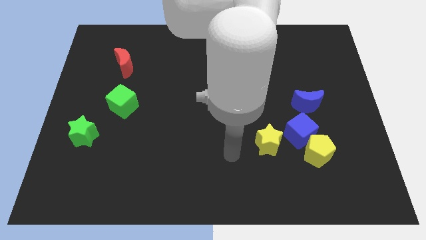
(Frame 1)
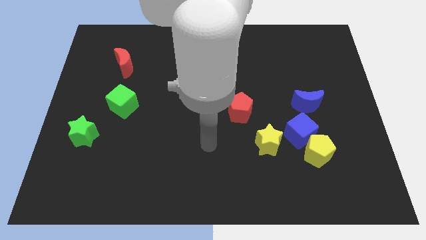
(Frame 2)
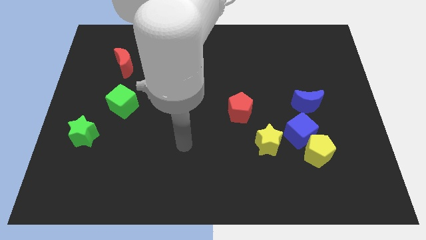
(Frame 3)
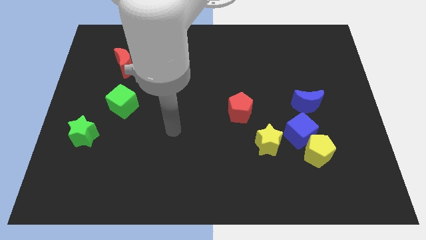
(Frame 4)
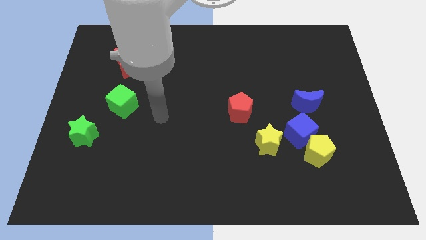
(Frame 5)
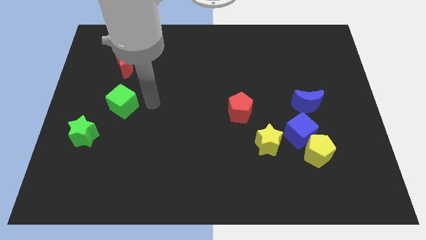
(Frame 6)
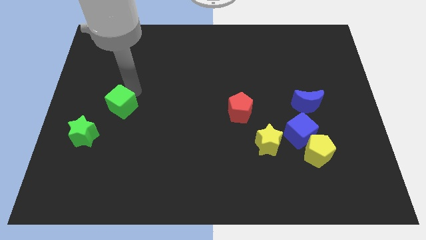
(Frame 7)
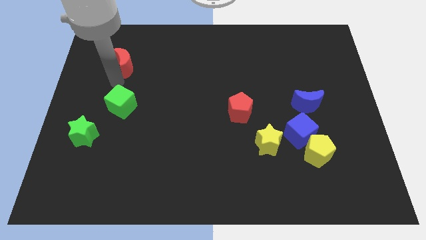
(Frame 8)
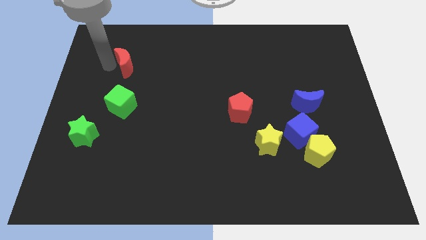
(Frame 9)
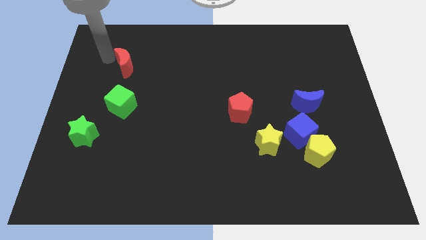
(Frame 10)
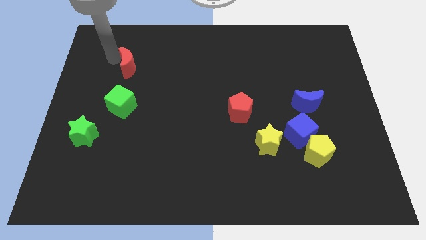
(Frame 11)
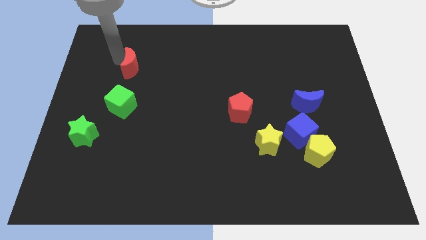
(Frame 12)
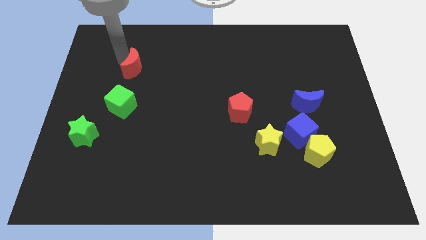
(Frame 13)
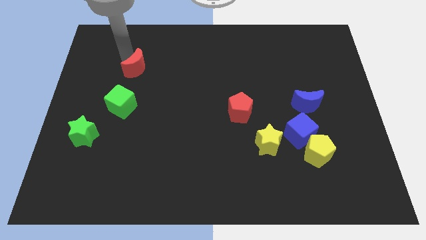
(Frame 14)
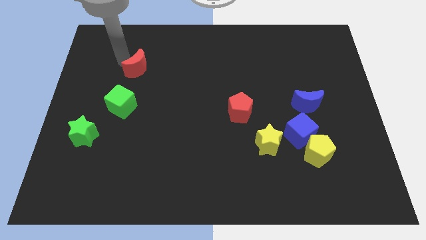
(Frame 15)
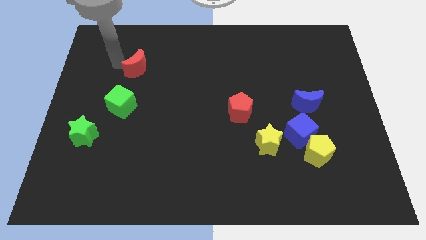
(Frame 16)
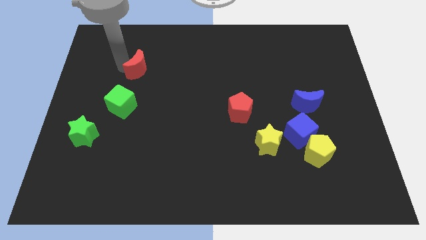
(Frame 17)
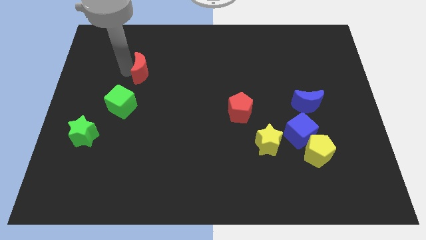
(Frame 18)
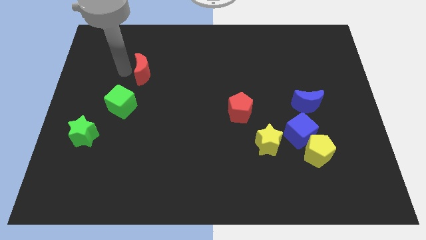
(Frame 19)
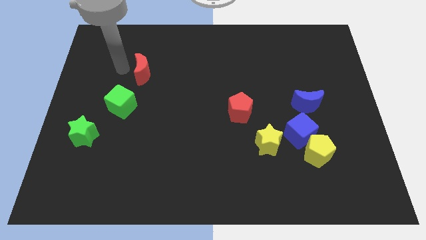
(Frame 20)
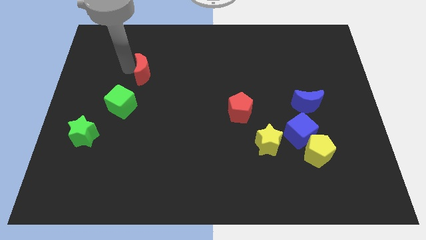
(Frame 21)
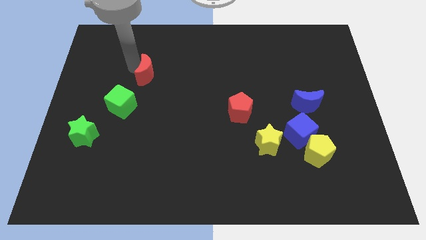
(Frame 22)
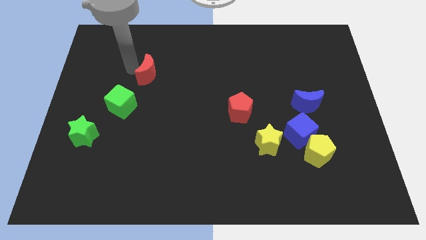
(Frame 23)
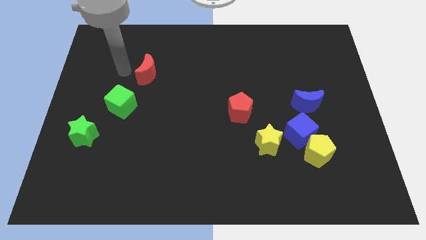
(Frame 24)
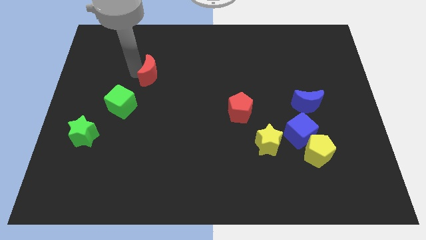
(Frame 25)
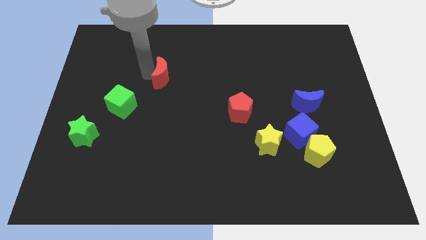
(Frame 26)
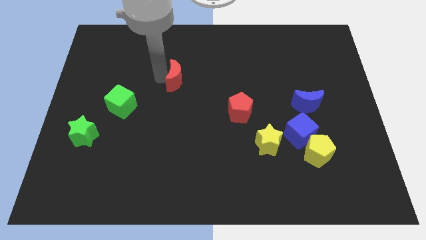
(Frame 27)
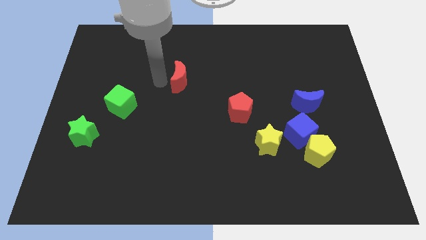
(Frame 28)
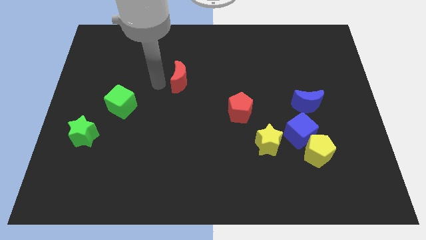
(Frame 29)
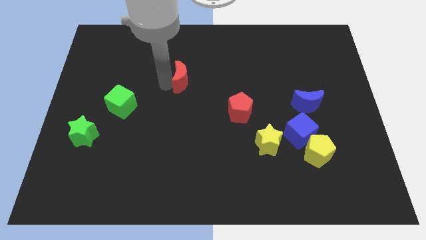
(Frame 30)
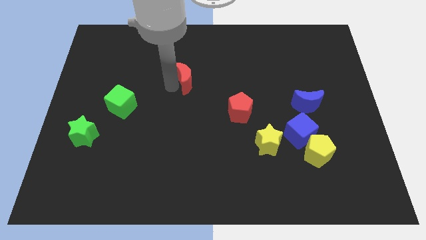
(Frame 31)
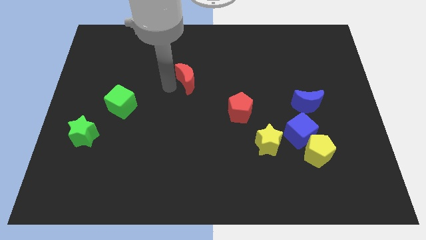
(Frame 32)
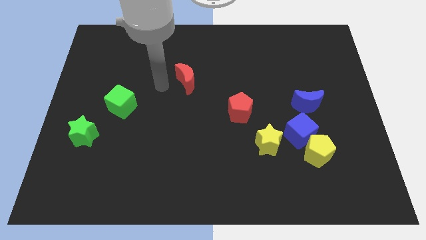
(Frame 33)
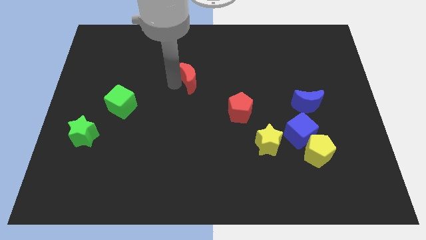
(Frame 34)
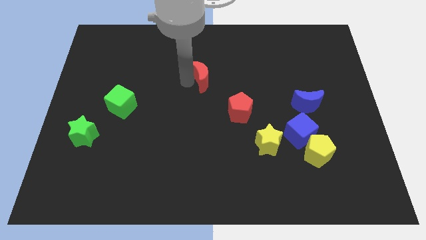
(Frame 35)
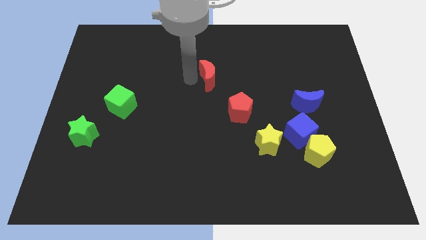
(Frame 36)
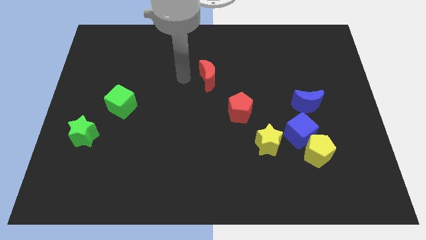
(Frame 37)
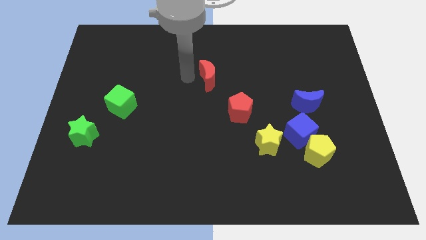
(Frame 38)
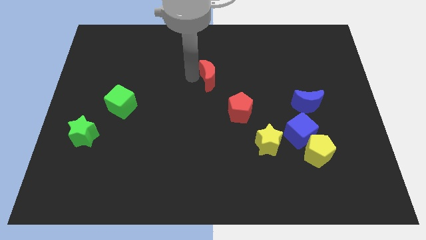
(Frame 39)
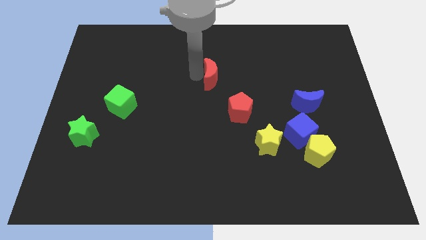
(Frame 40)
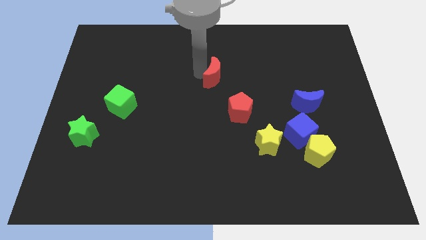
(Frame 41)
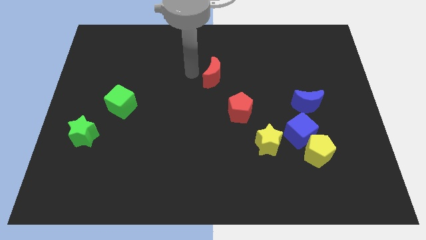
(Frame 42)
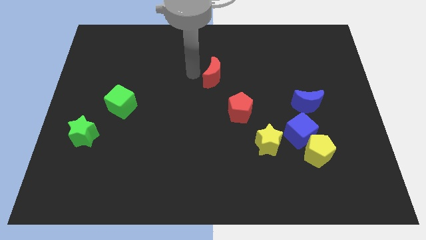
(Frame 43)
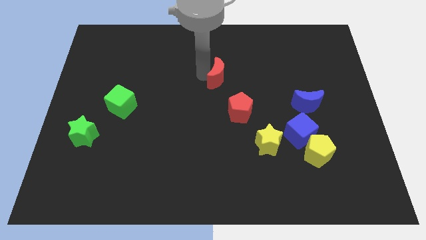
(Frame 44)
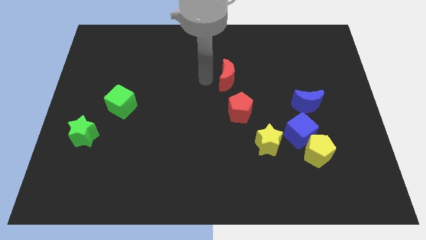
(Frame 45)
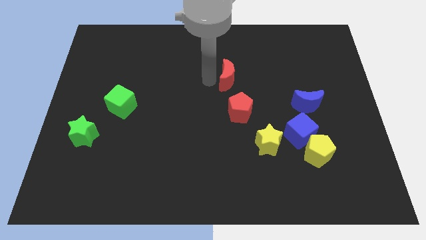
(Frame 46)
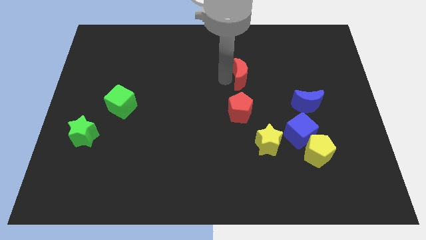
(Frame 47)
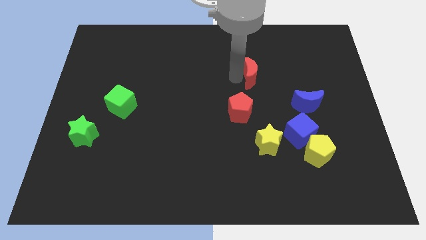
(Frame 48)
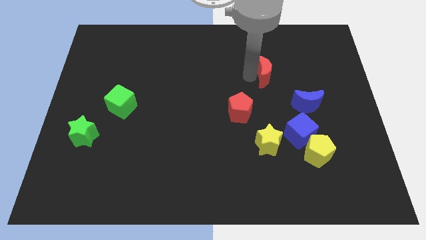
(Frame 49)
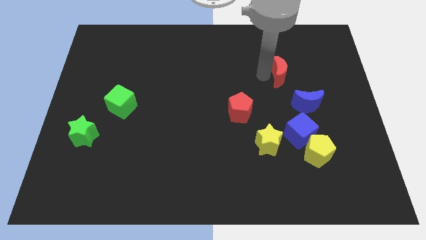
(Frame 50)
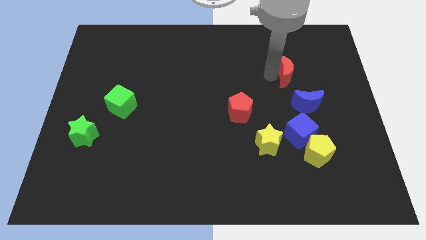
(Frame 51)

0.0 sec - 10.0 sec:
put the red moon above the blue moon

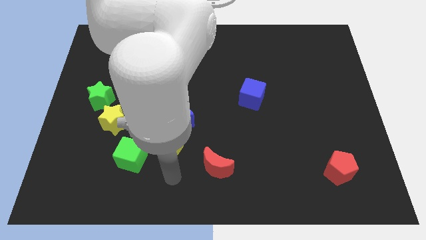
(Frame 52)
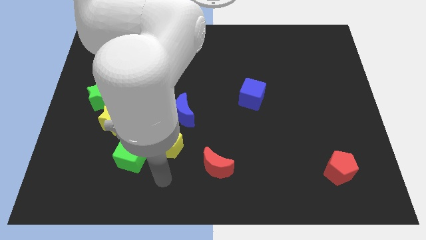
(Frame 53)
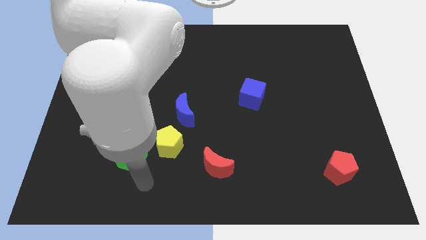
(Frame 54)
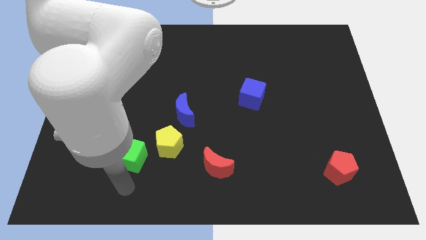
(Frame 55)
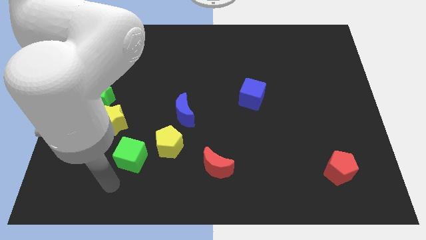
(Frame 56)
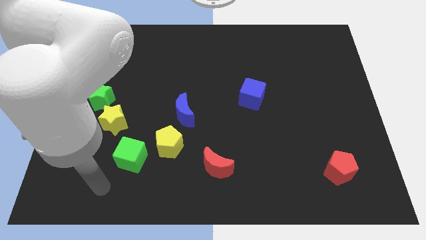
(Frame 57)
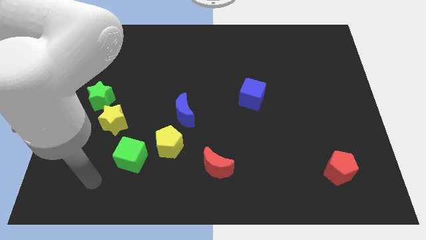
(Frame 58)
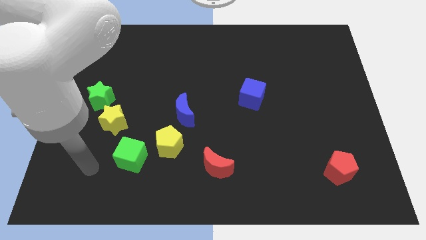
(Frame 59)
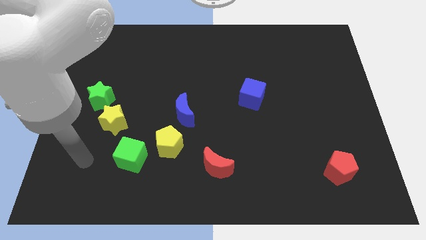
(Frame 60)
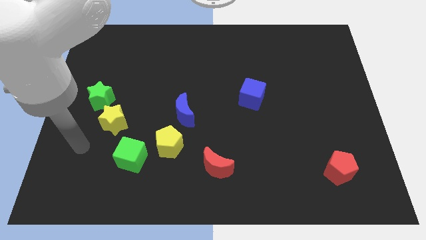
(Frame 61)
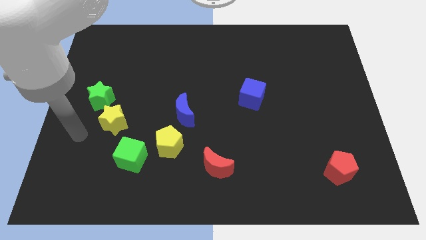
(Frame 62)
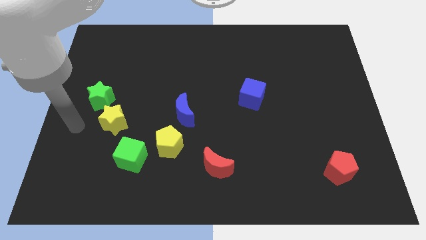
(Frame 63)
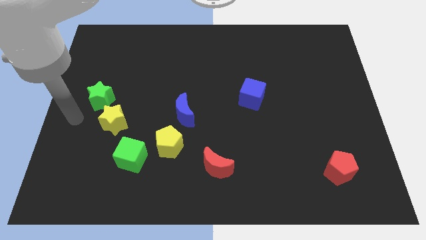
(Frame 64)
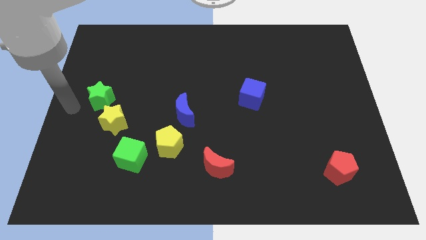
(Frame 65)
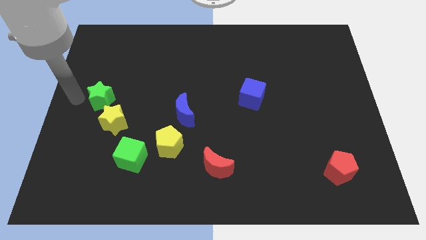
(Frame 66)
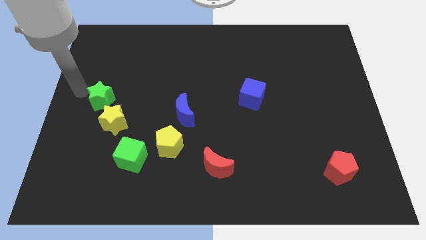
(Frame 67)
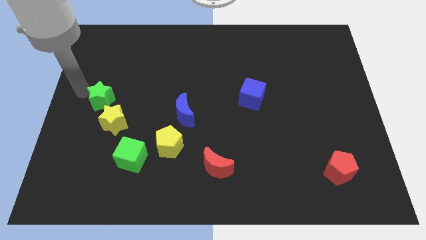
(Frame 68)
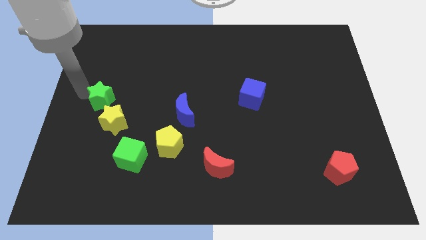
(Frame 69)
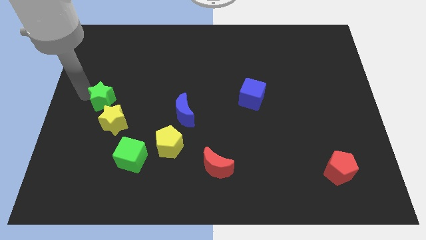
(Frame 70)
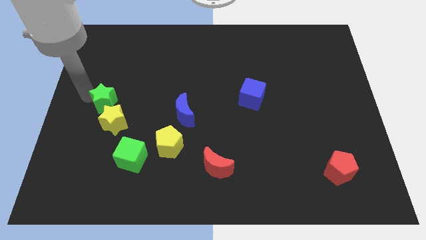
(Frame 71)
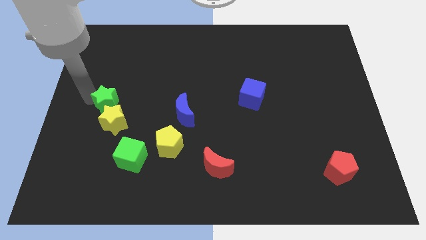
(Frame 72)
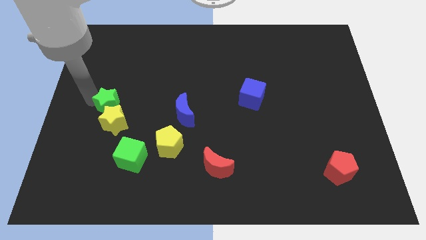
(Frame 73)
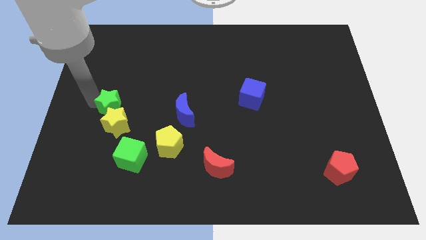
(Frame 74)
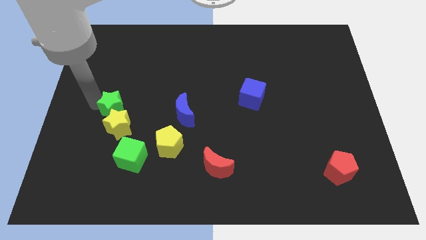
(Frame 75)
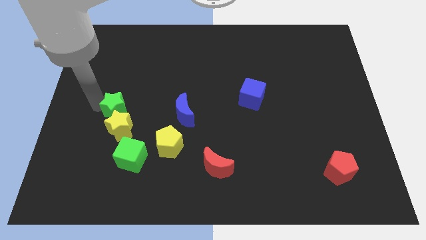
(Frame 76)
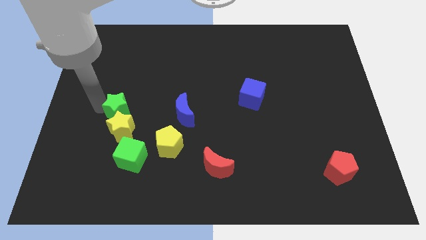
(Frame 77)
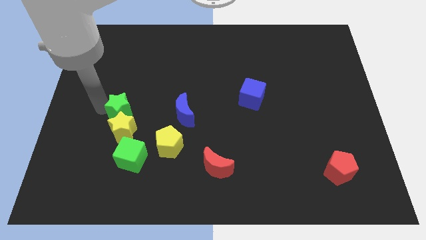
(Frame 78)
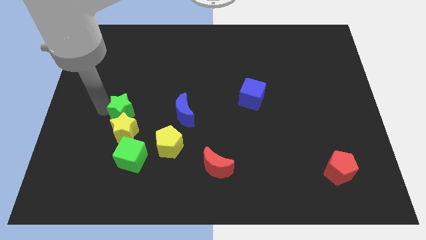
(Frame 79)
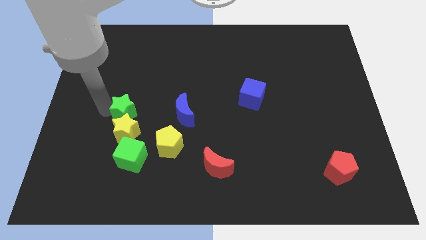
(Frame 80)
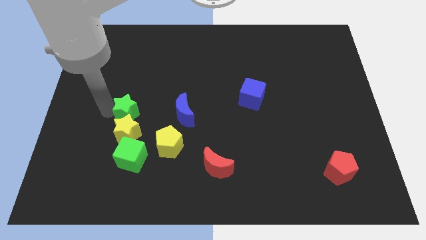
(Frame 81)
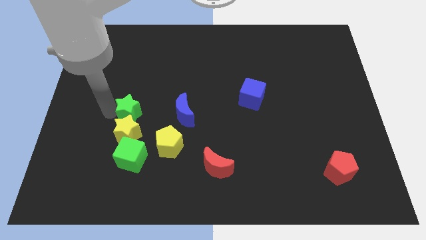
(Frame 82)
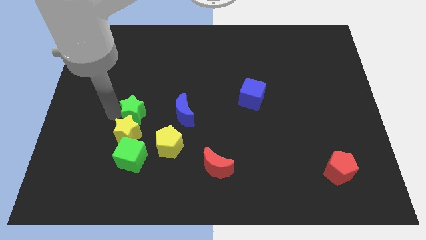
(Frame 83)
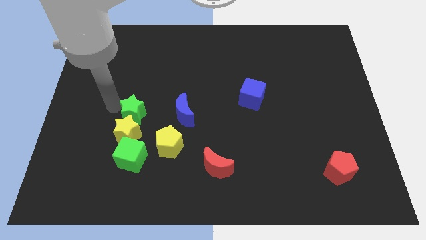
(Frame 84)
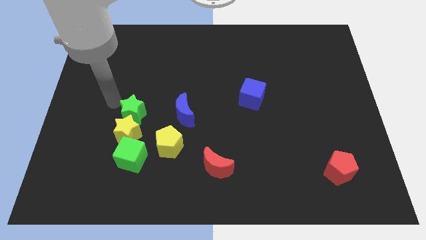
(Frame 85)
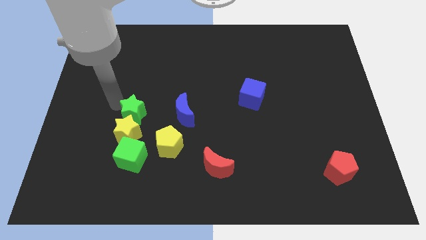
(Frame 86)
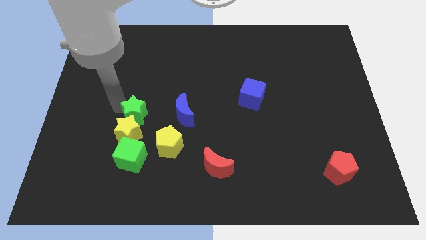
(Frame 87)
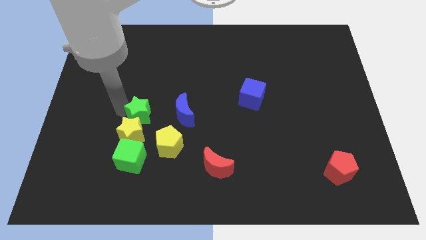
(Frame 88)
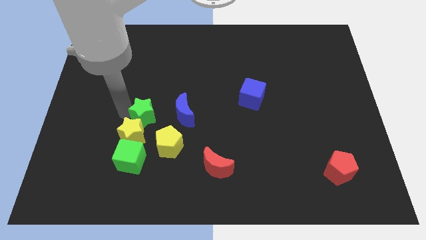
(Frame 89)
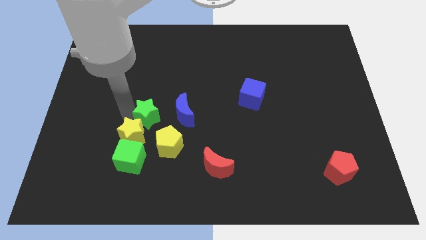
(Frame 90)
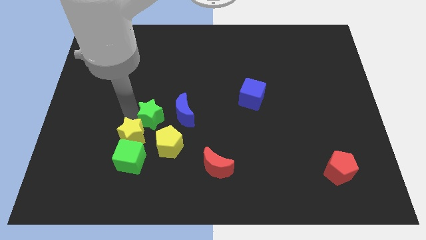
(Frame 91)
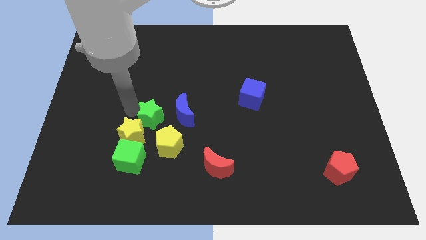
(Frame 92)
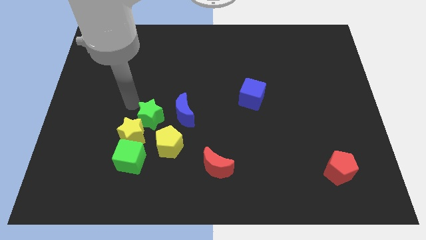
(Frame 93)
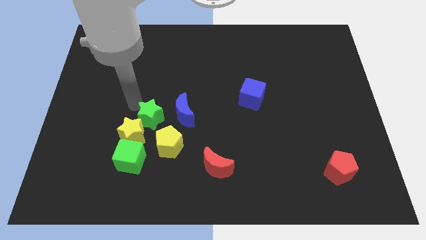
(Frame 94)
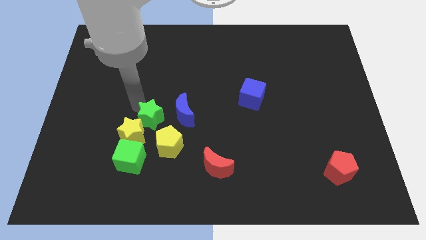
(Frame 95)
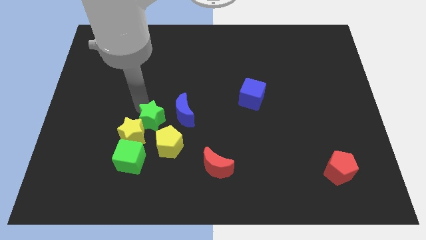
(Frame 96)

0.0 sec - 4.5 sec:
put the green star just right of the yellow star
